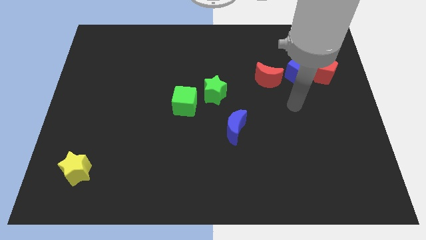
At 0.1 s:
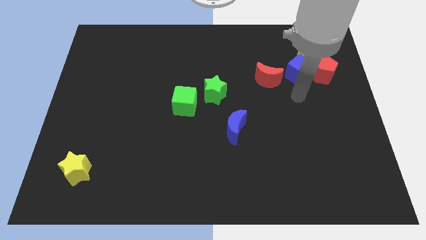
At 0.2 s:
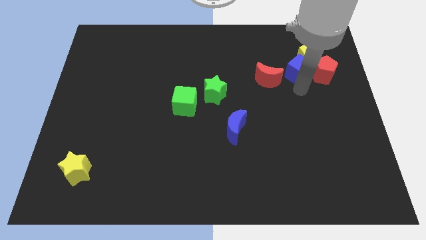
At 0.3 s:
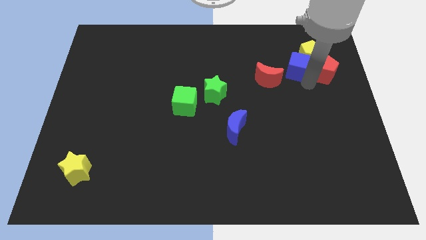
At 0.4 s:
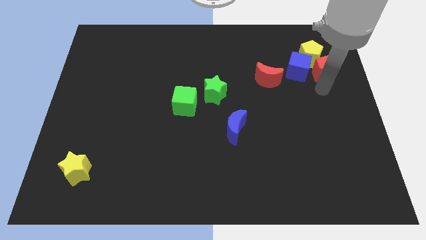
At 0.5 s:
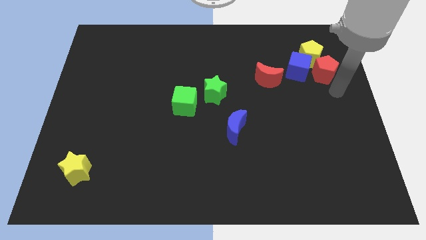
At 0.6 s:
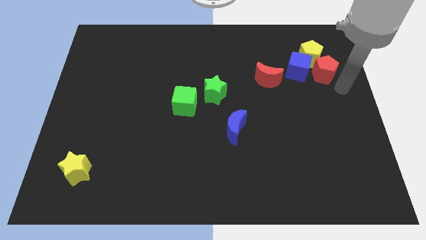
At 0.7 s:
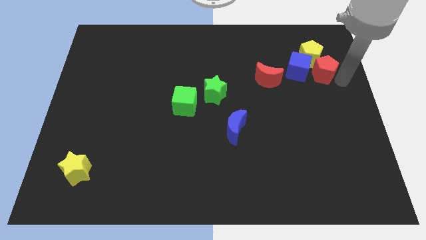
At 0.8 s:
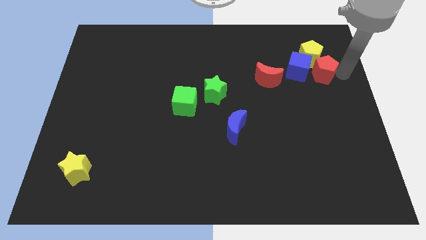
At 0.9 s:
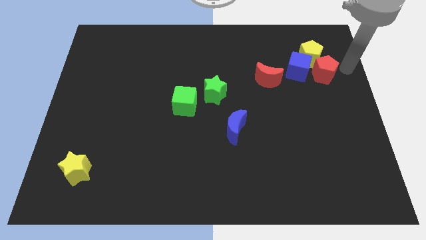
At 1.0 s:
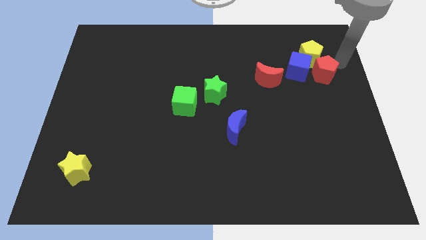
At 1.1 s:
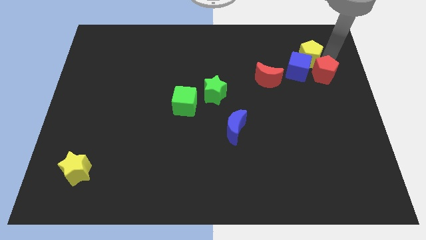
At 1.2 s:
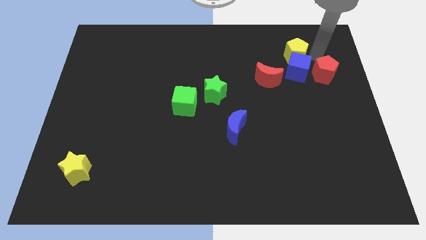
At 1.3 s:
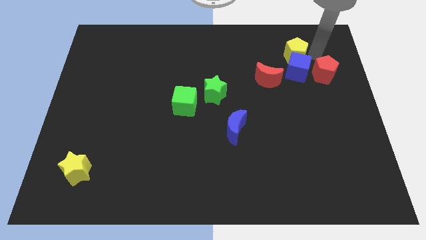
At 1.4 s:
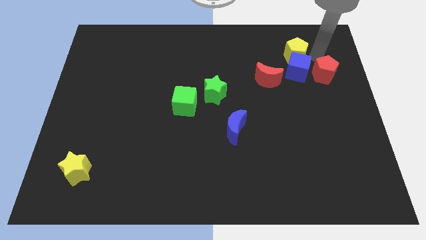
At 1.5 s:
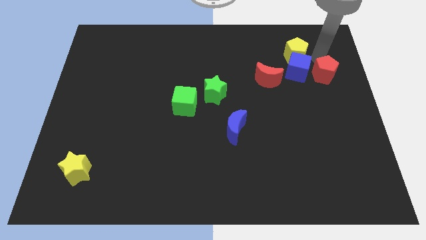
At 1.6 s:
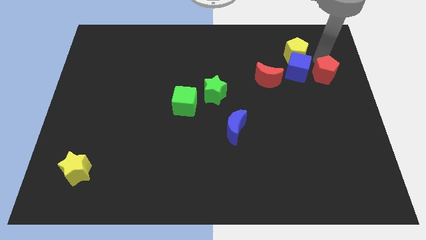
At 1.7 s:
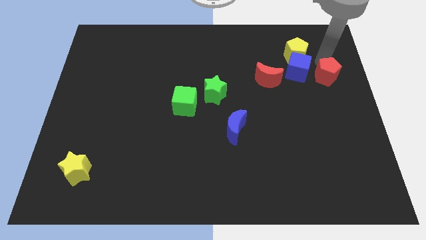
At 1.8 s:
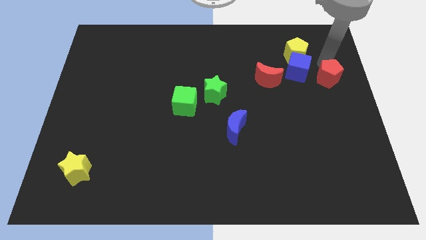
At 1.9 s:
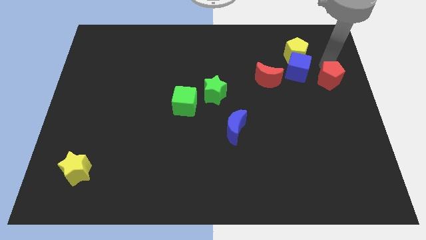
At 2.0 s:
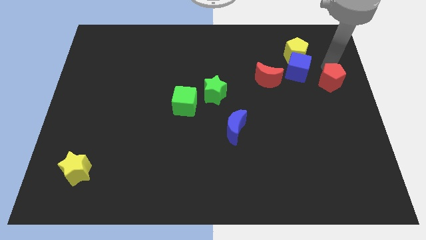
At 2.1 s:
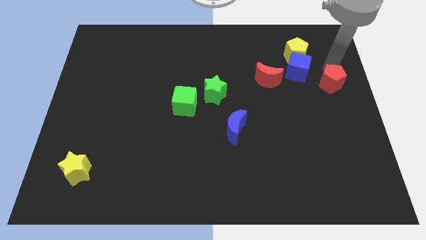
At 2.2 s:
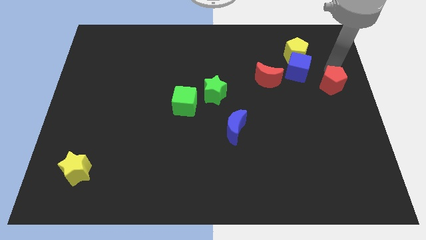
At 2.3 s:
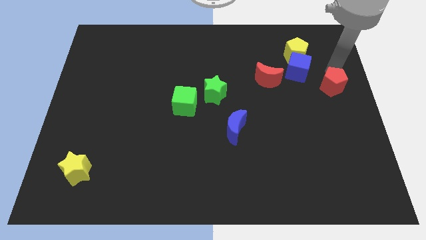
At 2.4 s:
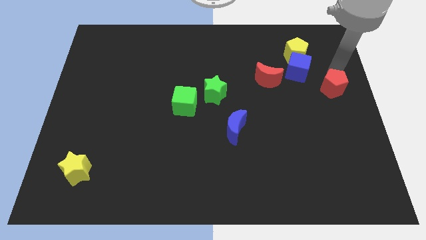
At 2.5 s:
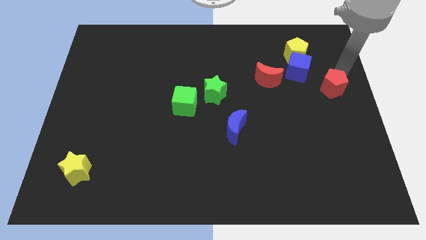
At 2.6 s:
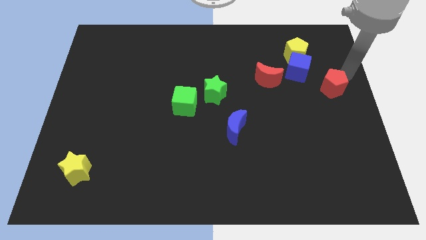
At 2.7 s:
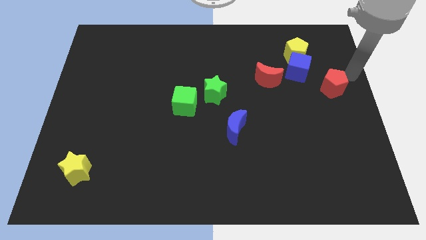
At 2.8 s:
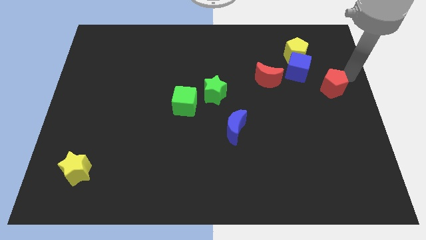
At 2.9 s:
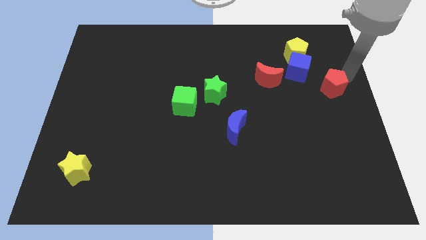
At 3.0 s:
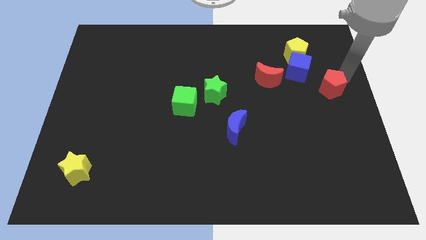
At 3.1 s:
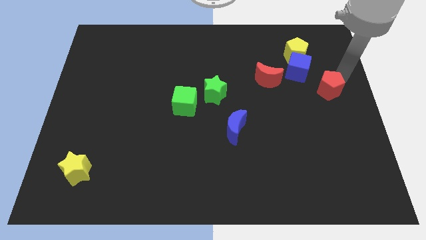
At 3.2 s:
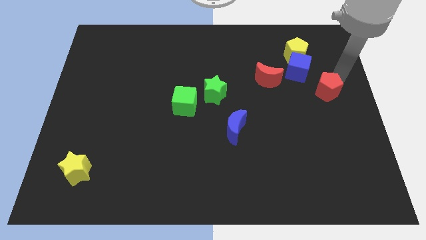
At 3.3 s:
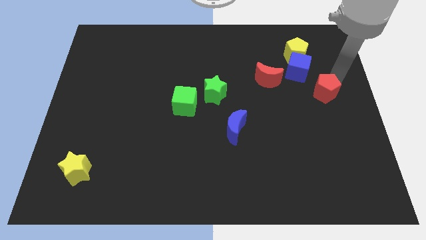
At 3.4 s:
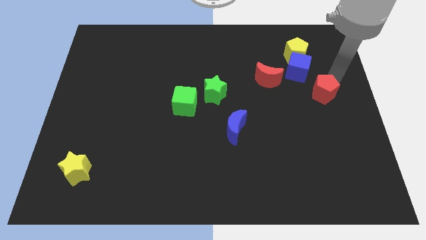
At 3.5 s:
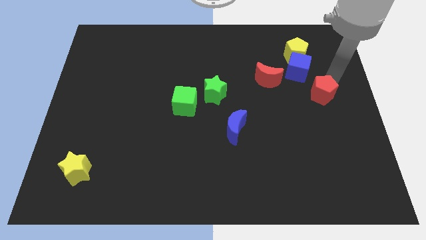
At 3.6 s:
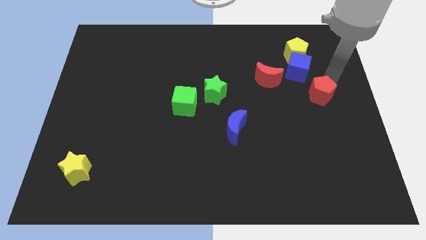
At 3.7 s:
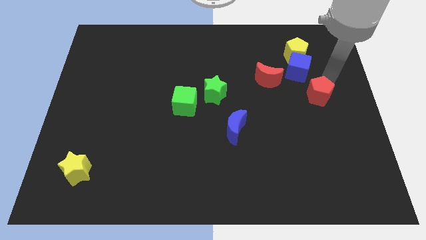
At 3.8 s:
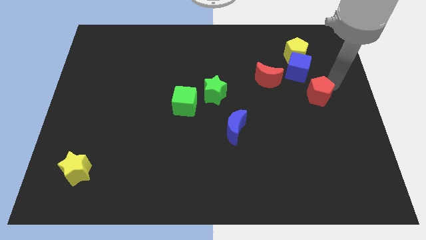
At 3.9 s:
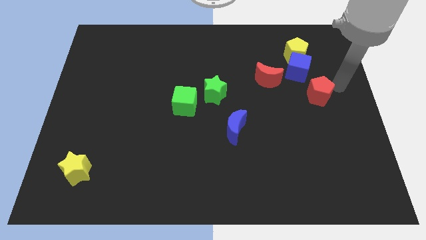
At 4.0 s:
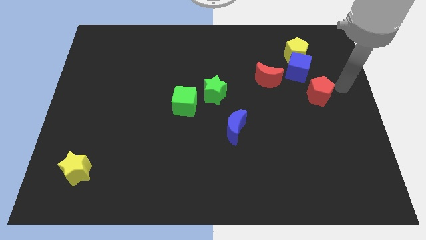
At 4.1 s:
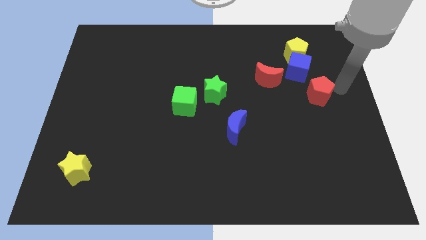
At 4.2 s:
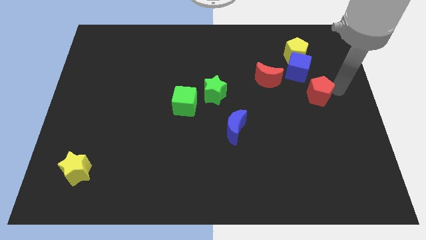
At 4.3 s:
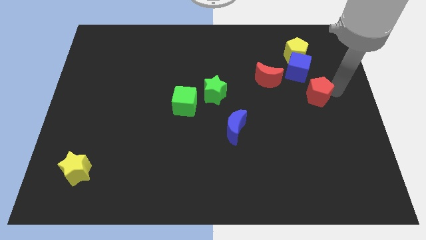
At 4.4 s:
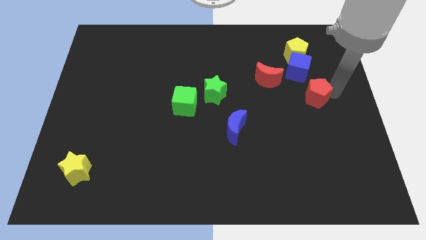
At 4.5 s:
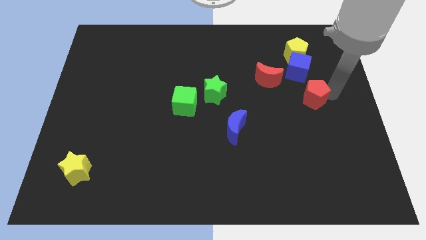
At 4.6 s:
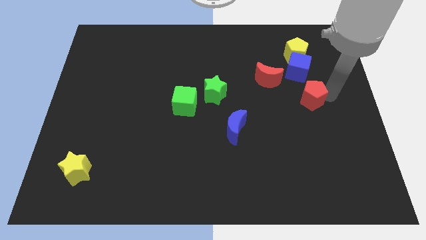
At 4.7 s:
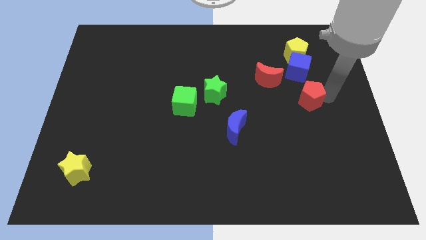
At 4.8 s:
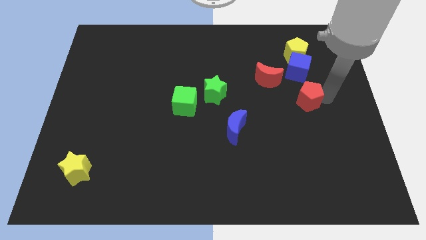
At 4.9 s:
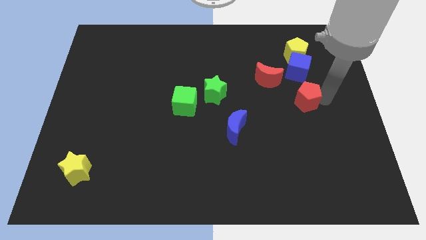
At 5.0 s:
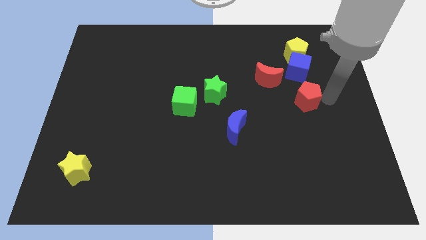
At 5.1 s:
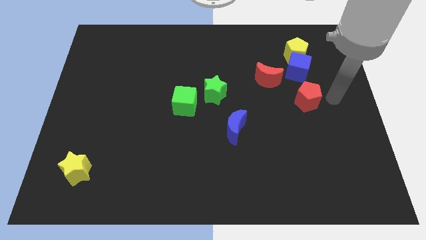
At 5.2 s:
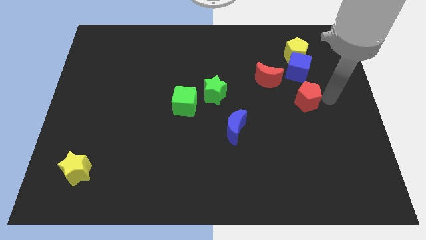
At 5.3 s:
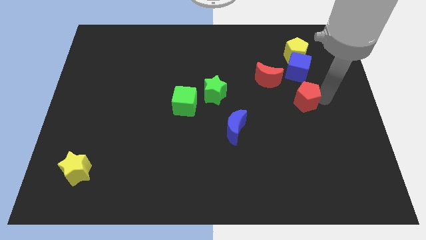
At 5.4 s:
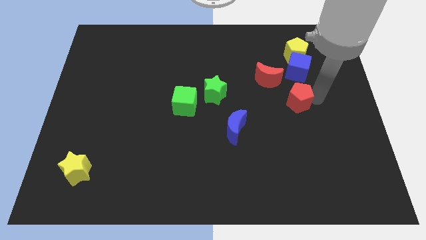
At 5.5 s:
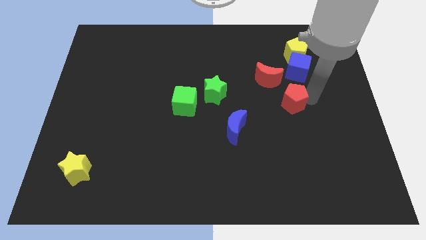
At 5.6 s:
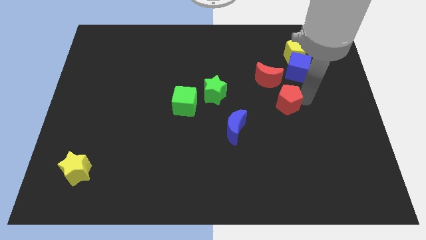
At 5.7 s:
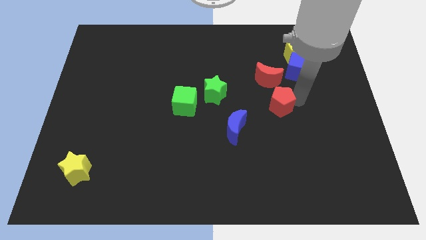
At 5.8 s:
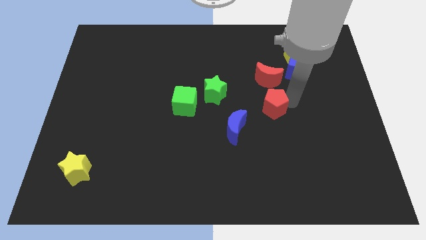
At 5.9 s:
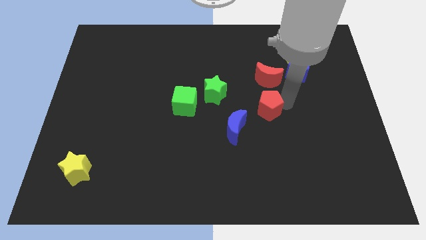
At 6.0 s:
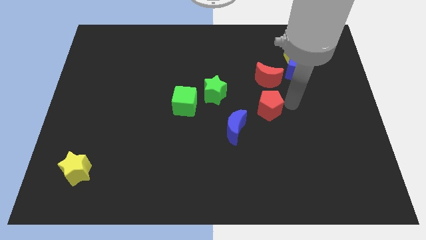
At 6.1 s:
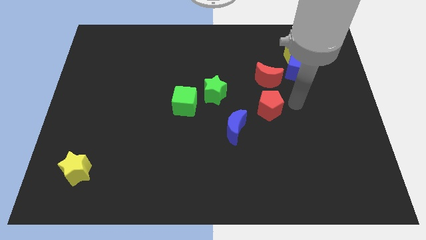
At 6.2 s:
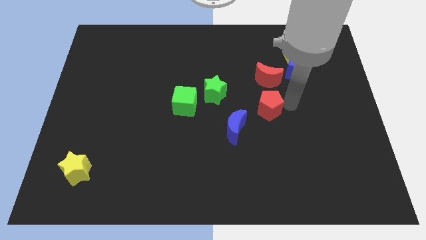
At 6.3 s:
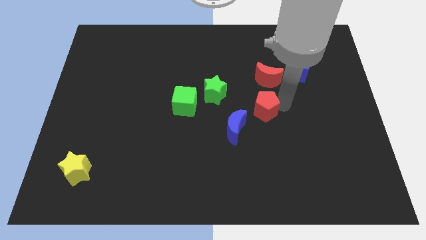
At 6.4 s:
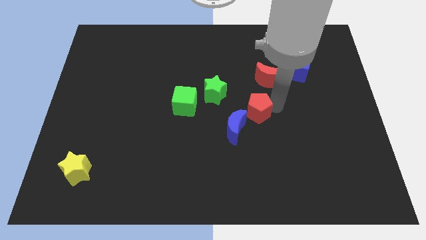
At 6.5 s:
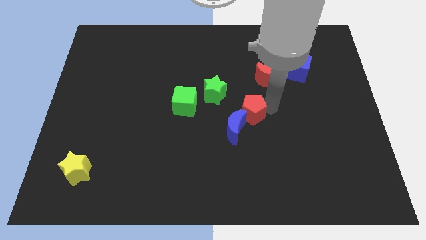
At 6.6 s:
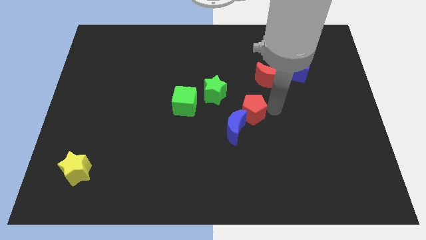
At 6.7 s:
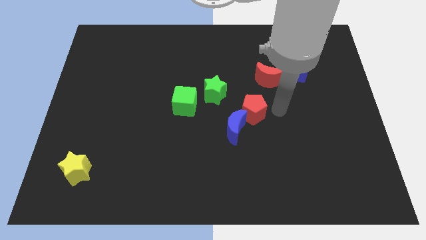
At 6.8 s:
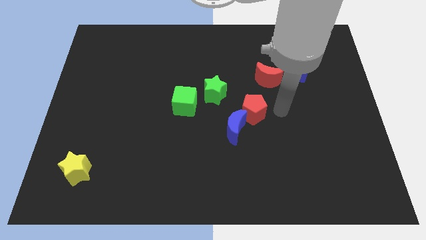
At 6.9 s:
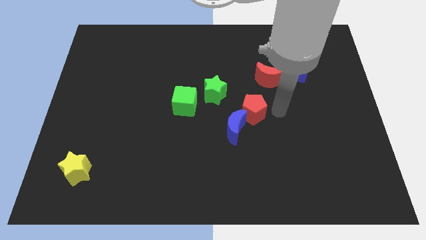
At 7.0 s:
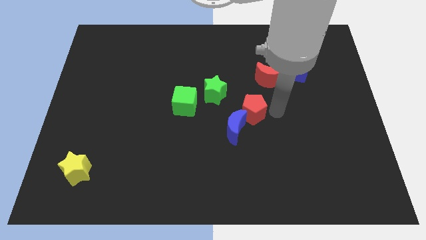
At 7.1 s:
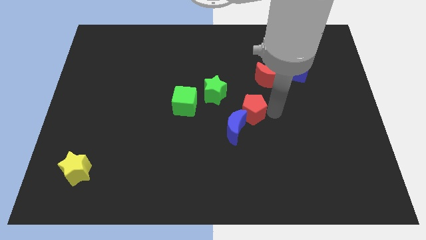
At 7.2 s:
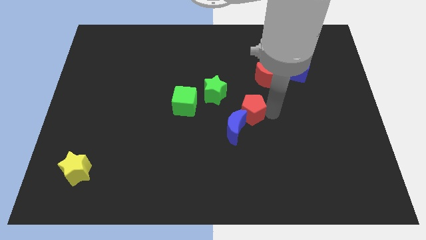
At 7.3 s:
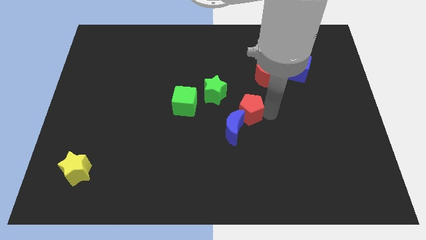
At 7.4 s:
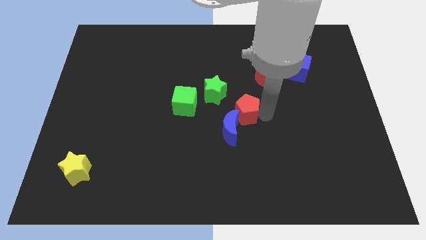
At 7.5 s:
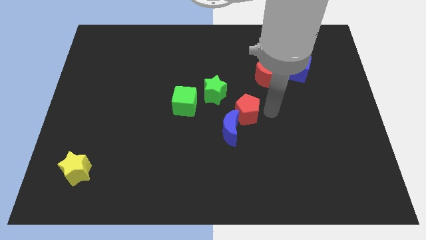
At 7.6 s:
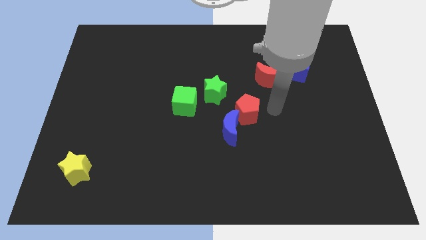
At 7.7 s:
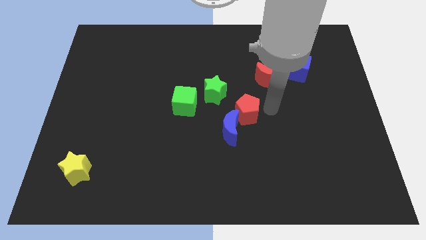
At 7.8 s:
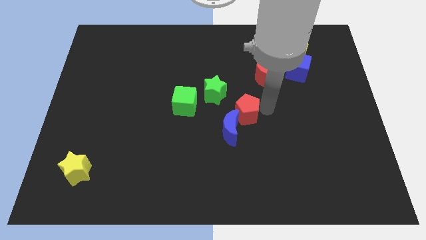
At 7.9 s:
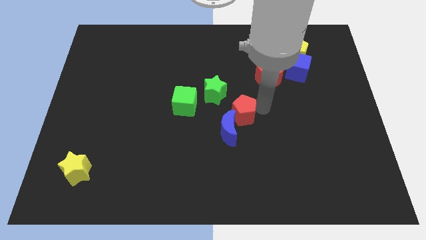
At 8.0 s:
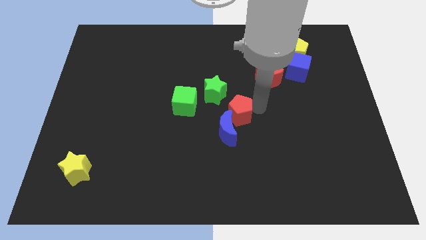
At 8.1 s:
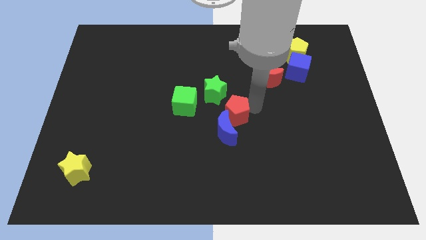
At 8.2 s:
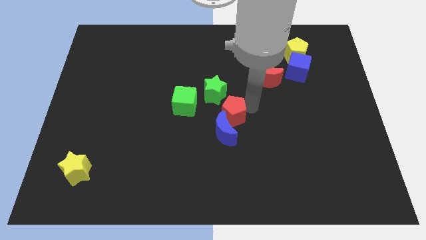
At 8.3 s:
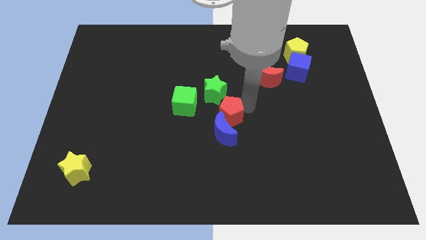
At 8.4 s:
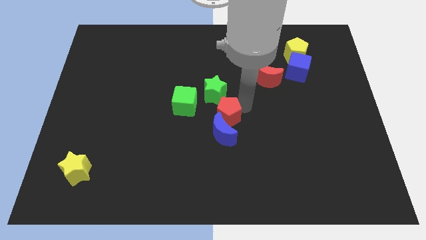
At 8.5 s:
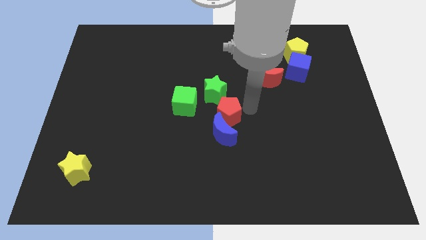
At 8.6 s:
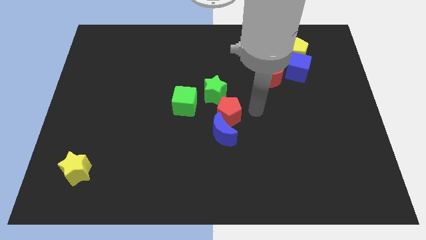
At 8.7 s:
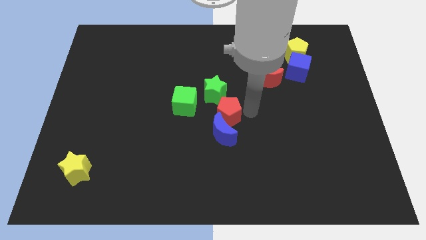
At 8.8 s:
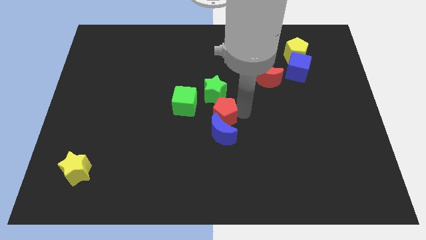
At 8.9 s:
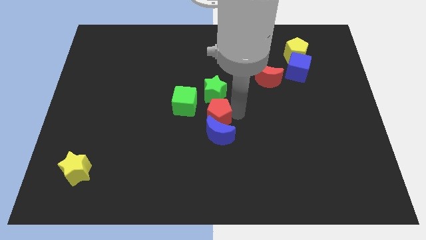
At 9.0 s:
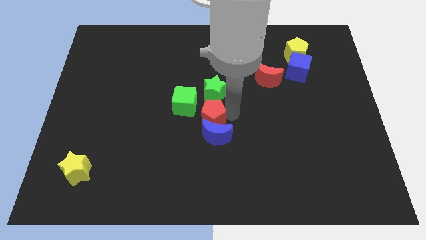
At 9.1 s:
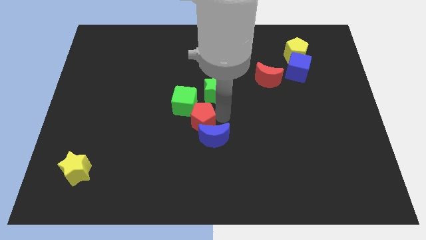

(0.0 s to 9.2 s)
push the red pentagon to the bottom left side of the green star
